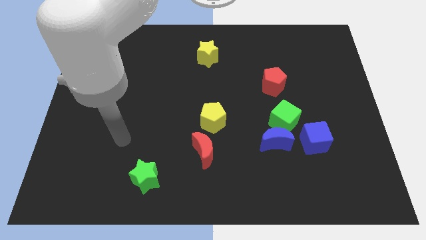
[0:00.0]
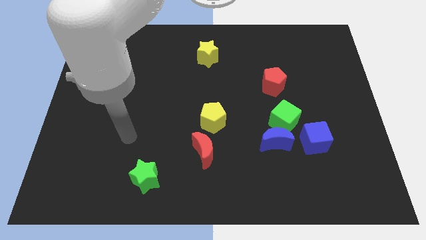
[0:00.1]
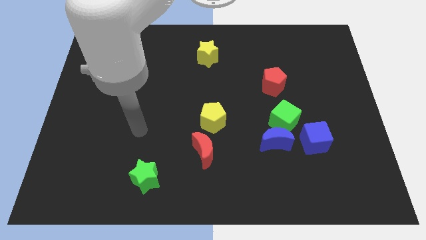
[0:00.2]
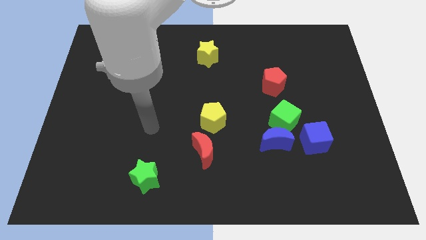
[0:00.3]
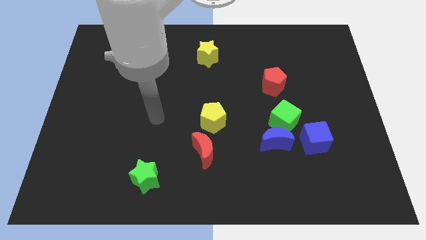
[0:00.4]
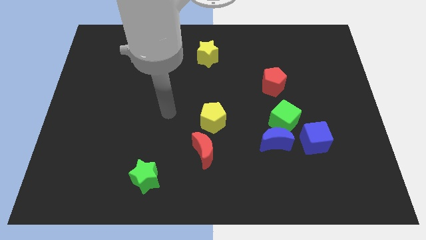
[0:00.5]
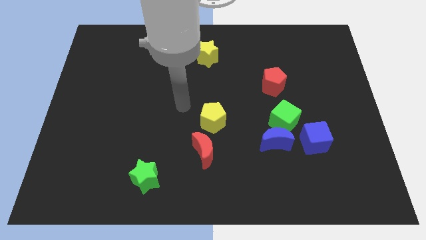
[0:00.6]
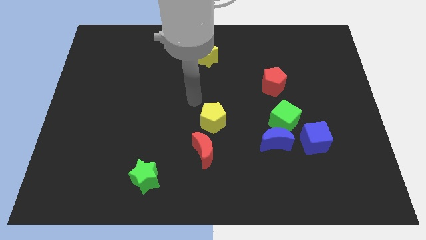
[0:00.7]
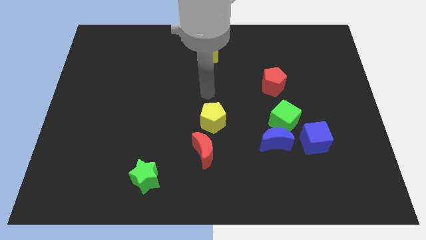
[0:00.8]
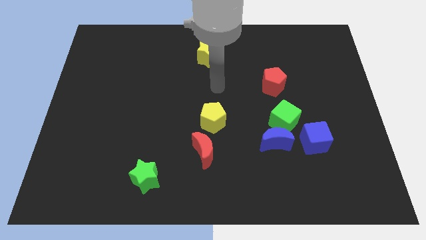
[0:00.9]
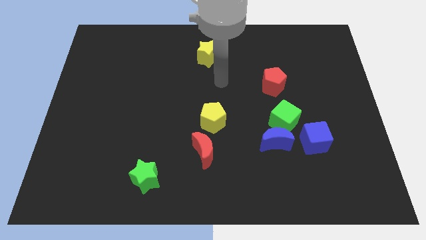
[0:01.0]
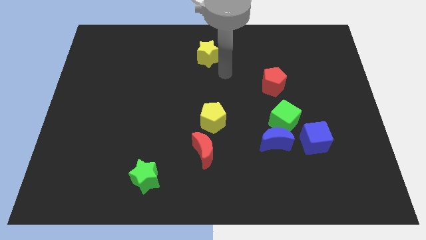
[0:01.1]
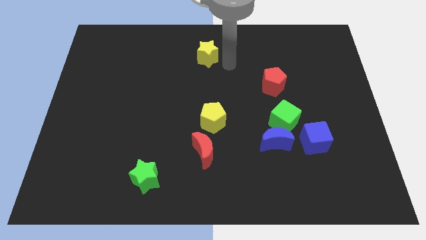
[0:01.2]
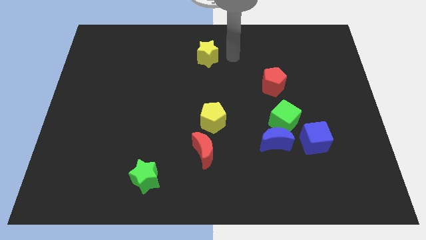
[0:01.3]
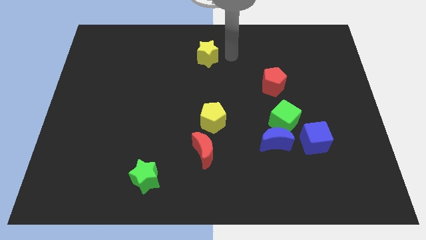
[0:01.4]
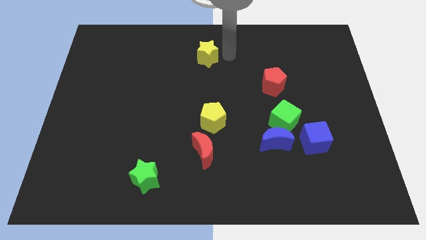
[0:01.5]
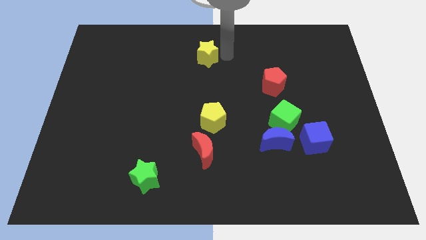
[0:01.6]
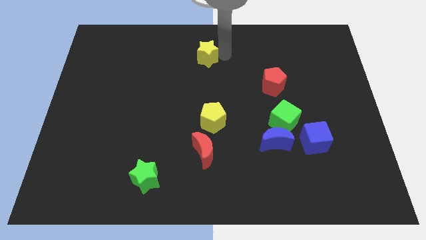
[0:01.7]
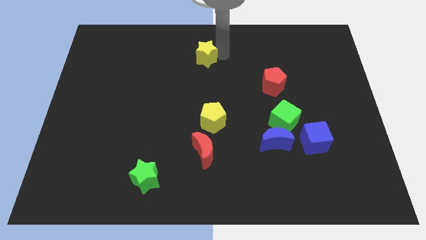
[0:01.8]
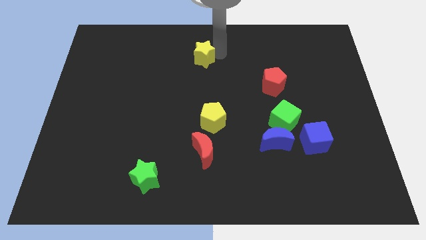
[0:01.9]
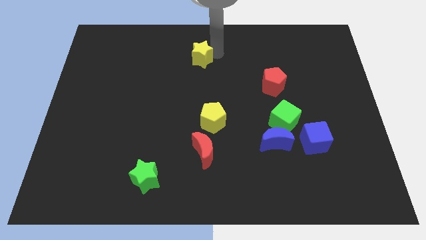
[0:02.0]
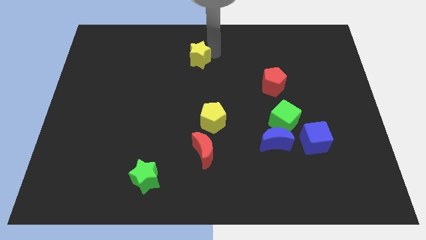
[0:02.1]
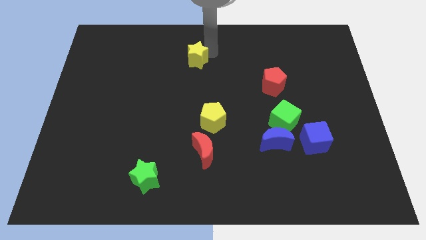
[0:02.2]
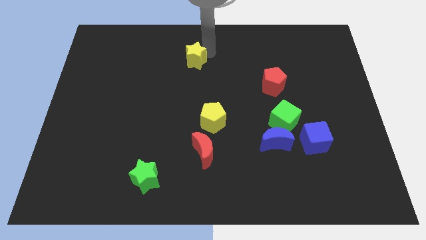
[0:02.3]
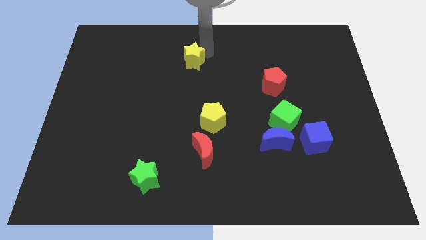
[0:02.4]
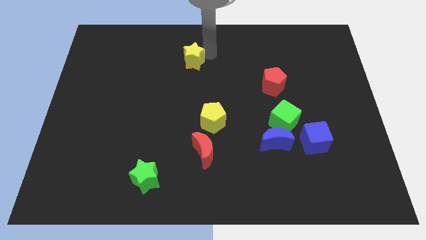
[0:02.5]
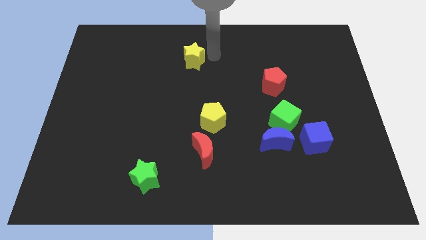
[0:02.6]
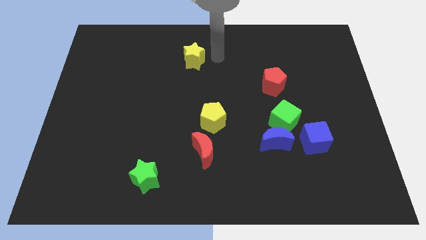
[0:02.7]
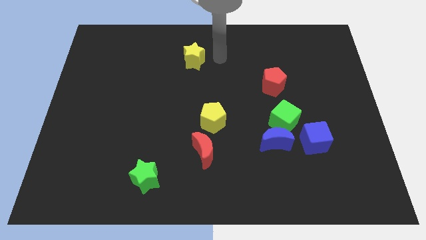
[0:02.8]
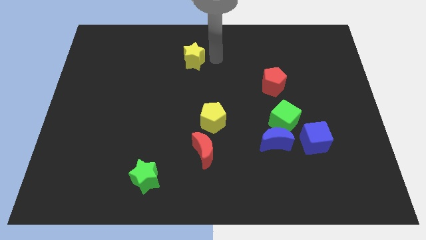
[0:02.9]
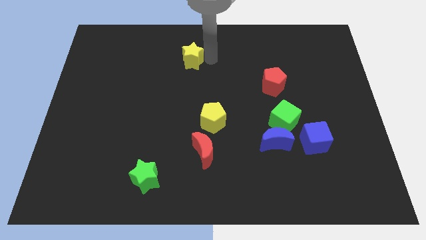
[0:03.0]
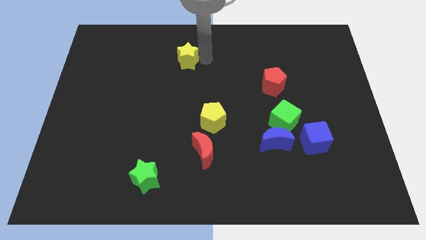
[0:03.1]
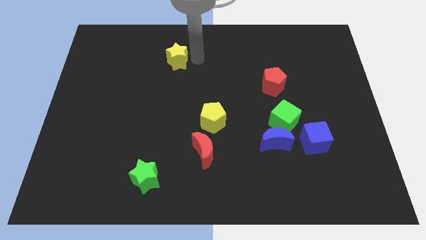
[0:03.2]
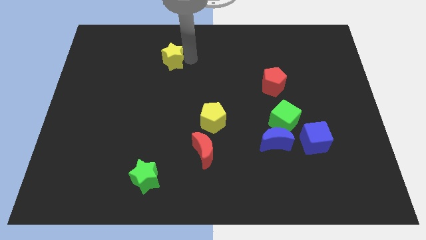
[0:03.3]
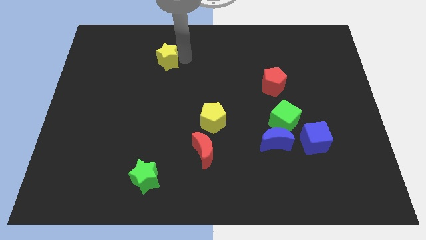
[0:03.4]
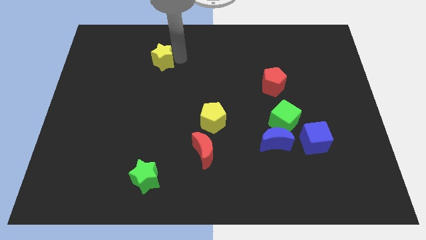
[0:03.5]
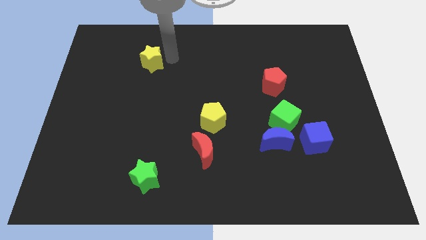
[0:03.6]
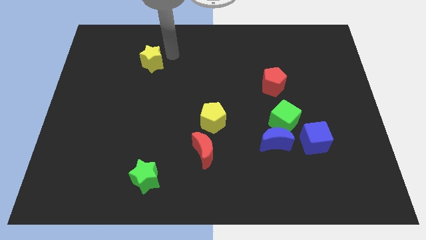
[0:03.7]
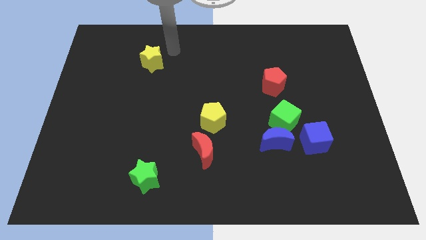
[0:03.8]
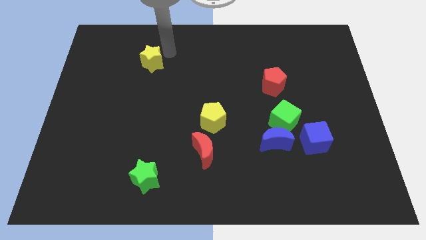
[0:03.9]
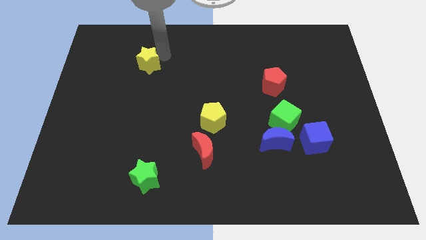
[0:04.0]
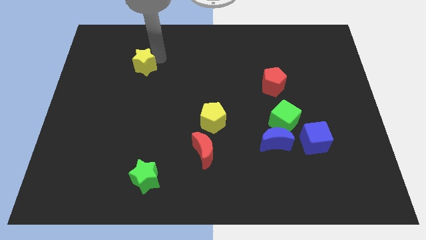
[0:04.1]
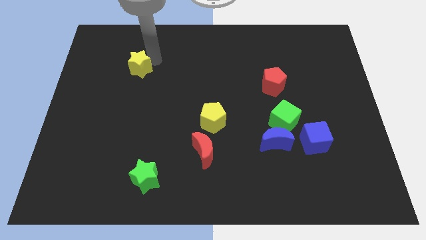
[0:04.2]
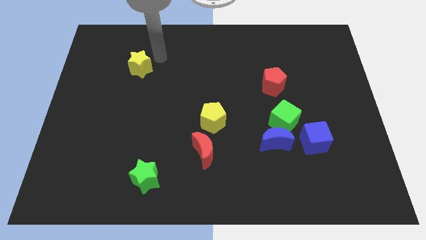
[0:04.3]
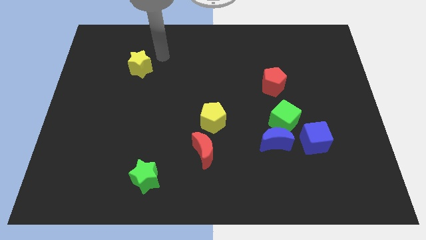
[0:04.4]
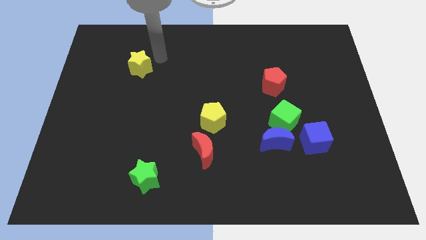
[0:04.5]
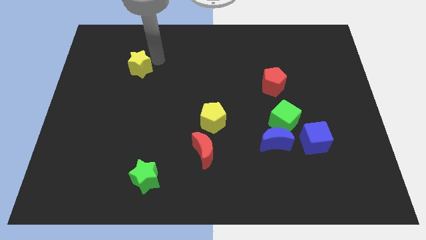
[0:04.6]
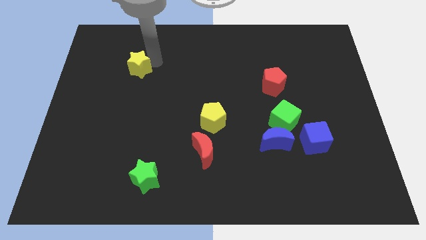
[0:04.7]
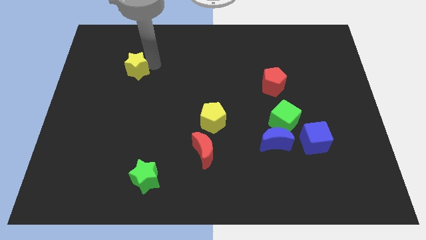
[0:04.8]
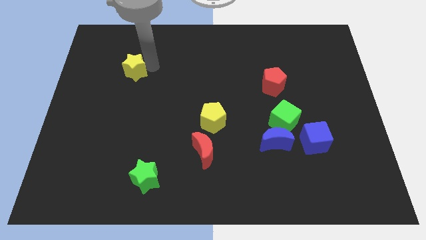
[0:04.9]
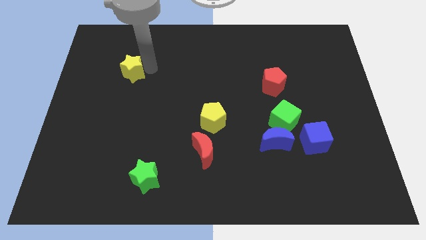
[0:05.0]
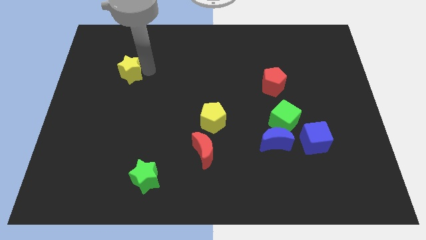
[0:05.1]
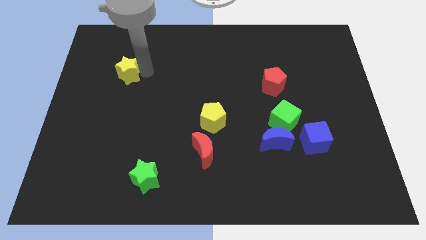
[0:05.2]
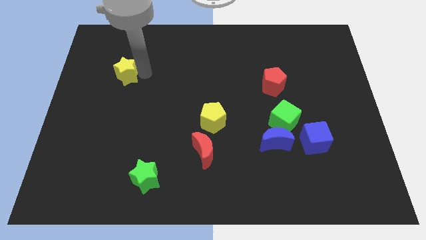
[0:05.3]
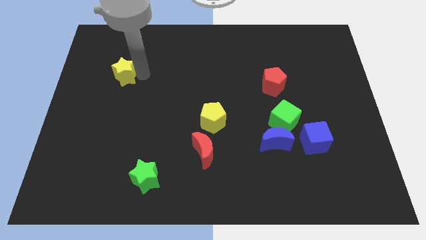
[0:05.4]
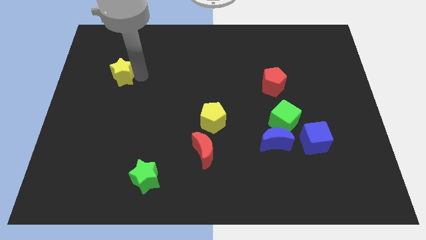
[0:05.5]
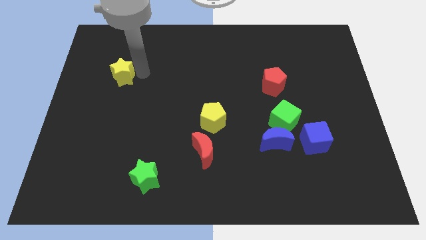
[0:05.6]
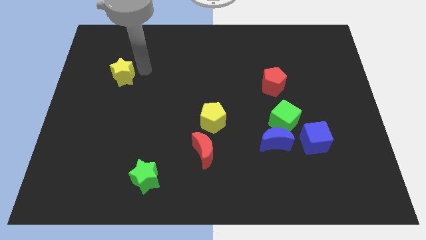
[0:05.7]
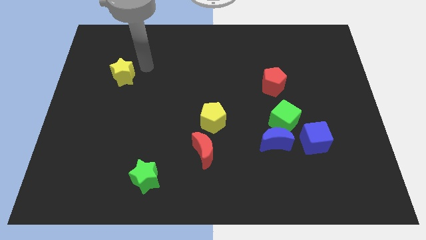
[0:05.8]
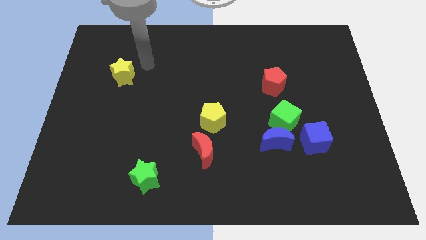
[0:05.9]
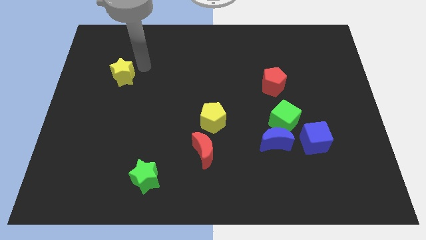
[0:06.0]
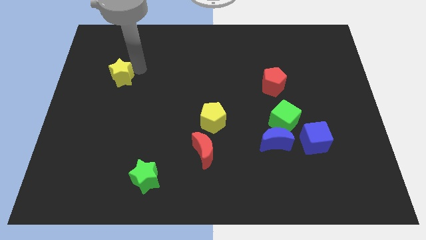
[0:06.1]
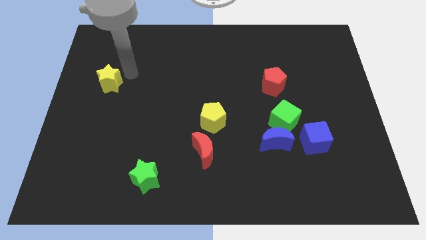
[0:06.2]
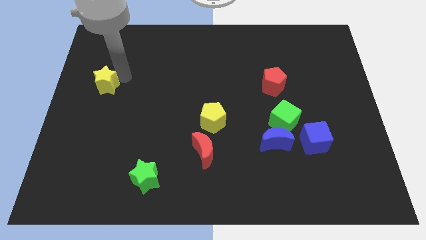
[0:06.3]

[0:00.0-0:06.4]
slide the yellow star to the center left
